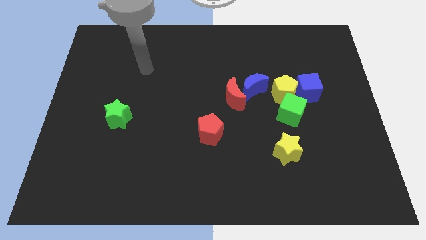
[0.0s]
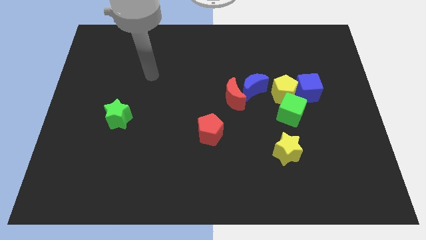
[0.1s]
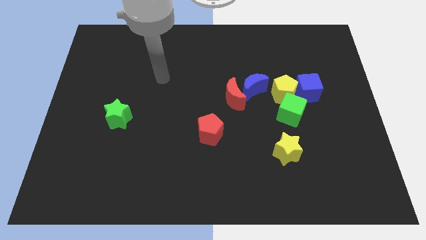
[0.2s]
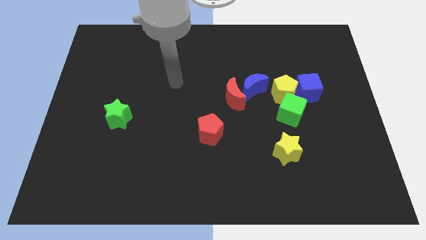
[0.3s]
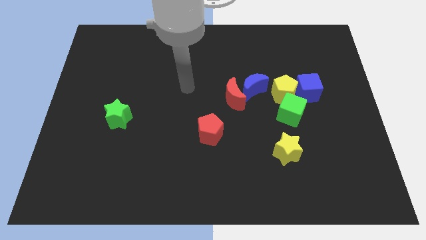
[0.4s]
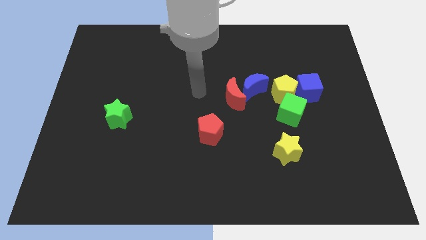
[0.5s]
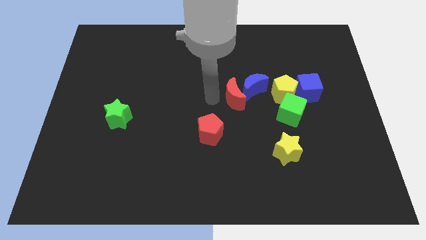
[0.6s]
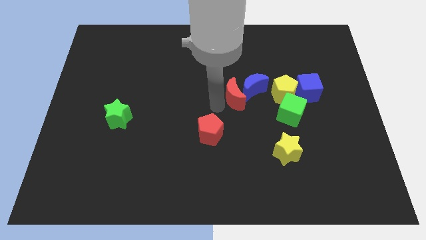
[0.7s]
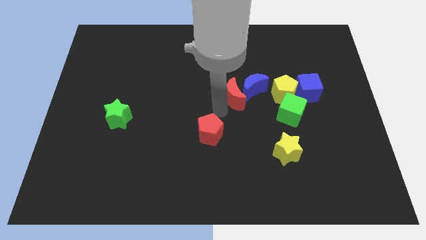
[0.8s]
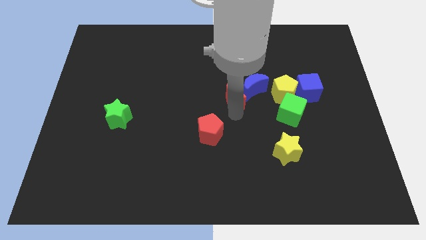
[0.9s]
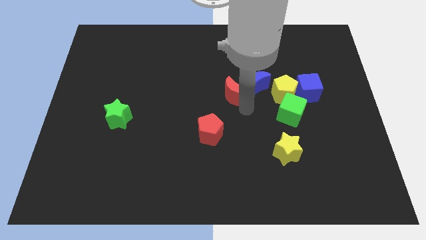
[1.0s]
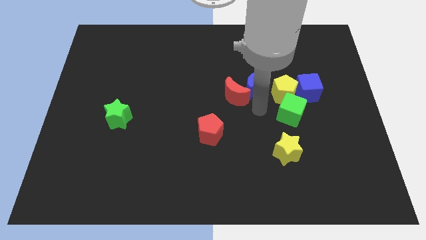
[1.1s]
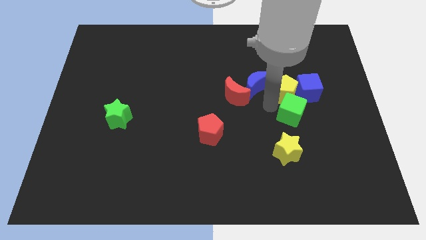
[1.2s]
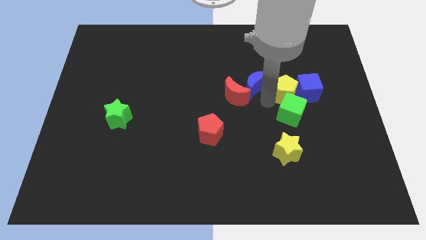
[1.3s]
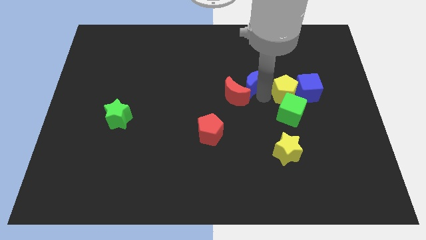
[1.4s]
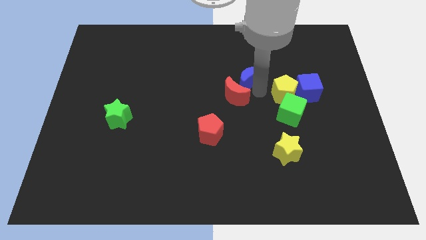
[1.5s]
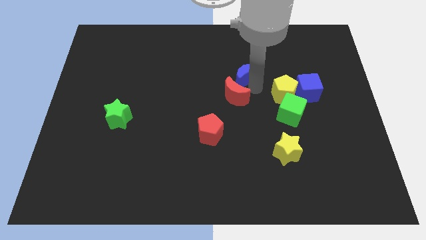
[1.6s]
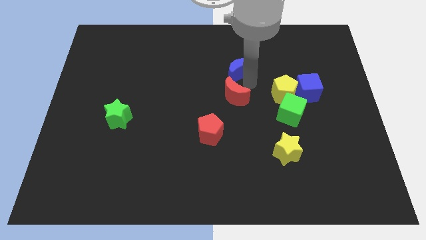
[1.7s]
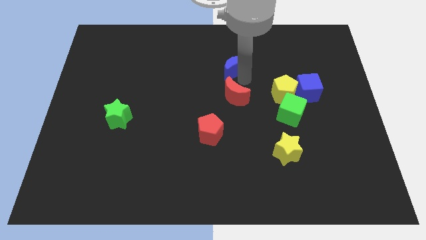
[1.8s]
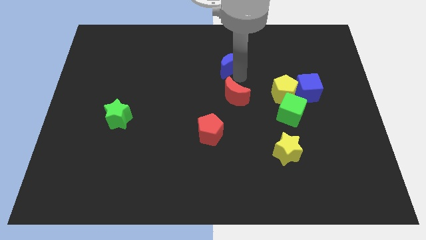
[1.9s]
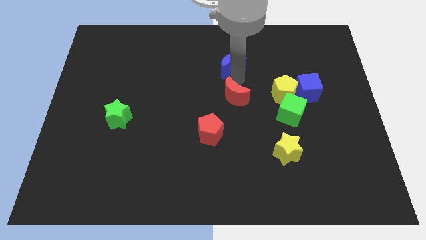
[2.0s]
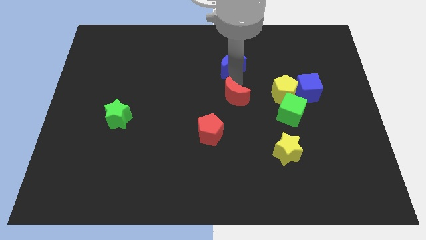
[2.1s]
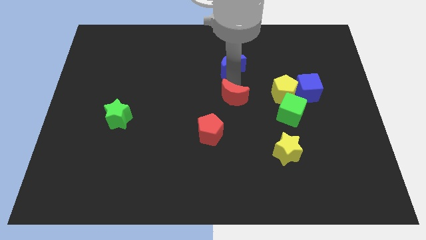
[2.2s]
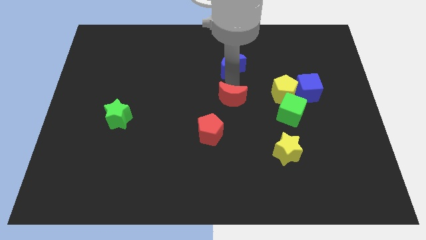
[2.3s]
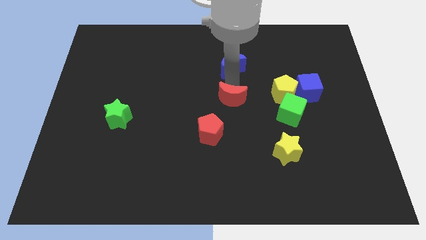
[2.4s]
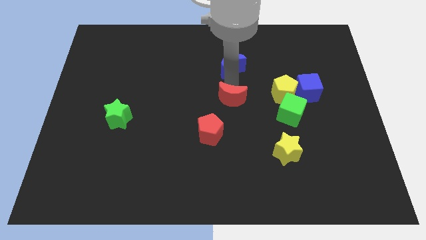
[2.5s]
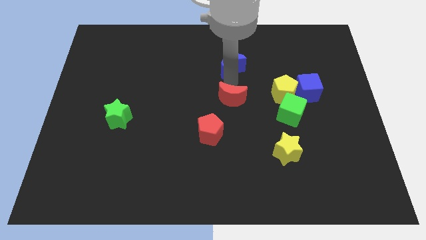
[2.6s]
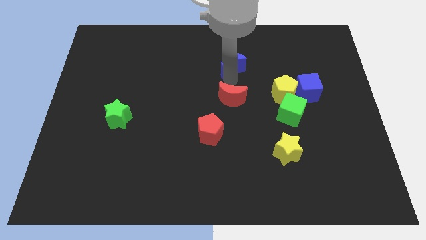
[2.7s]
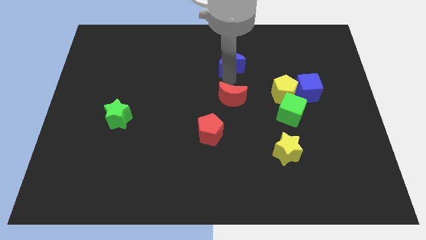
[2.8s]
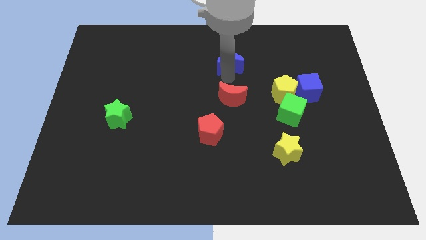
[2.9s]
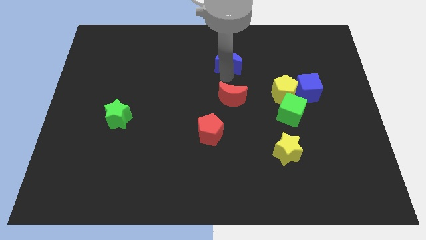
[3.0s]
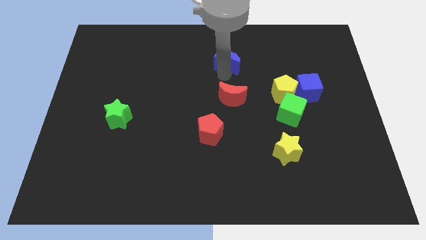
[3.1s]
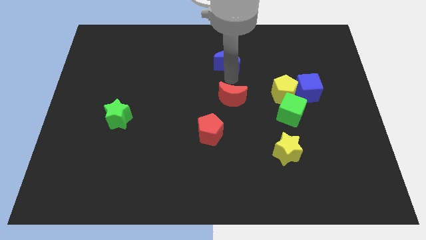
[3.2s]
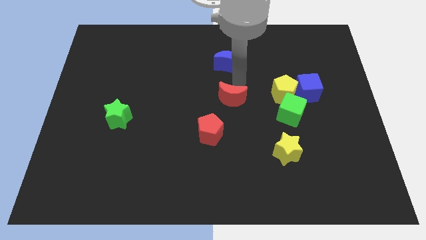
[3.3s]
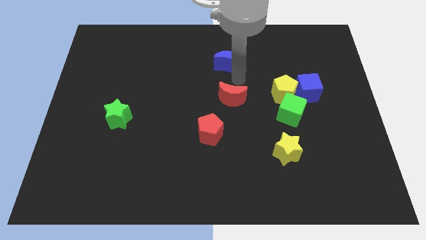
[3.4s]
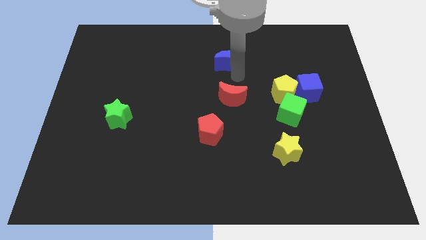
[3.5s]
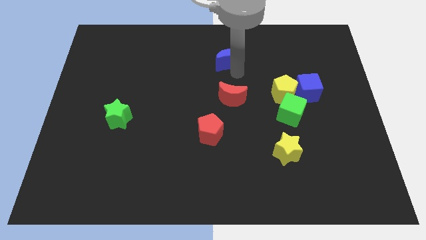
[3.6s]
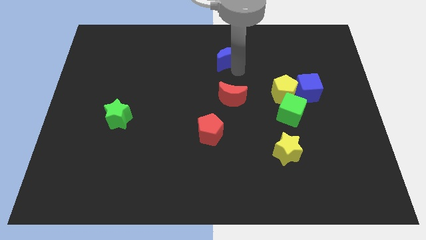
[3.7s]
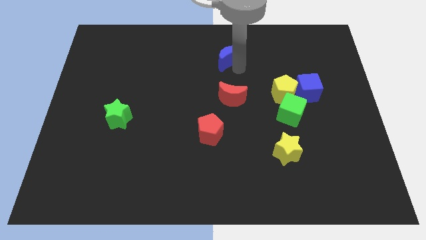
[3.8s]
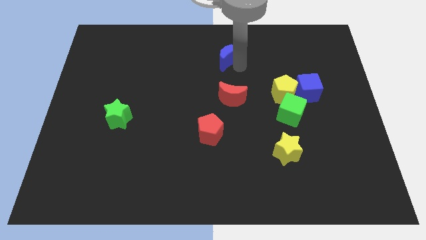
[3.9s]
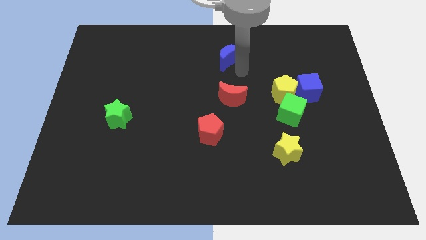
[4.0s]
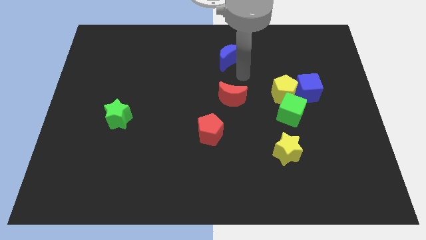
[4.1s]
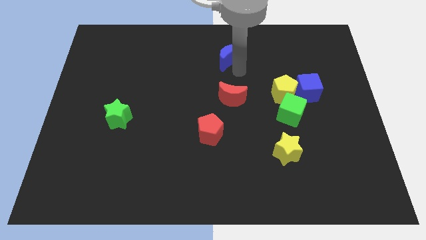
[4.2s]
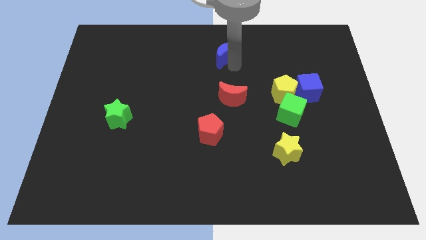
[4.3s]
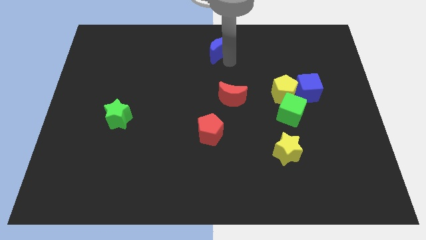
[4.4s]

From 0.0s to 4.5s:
move the blue moon to the top side

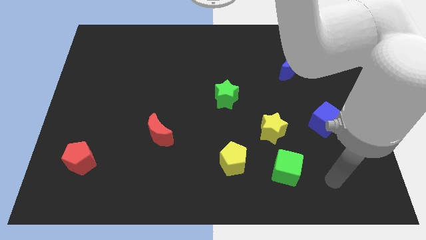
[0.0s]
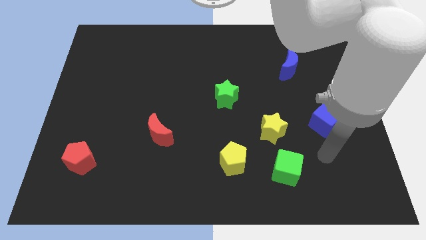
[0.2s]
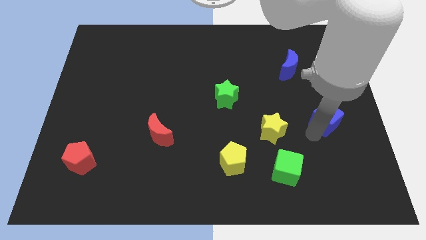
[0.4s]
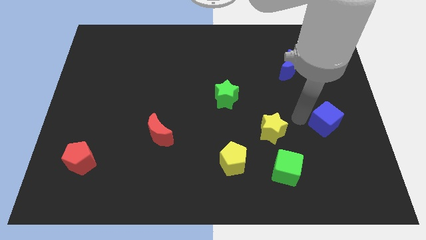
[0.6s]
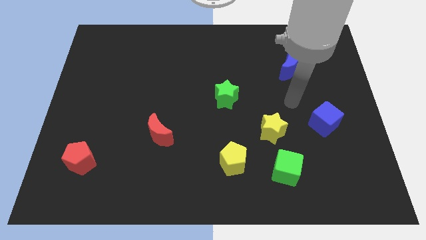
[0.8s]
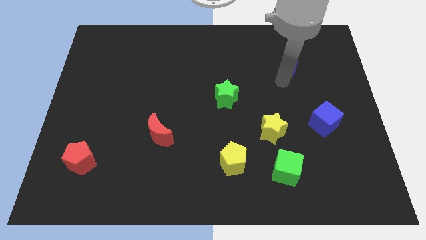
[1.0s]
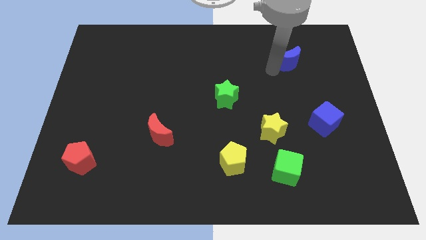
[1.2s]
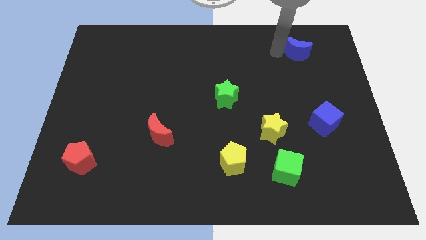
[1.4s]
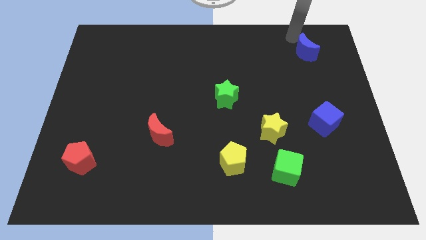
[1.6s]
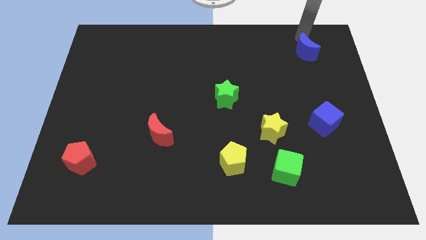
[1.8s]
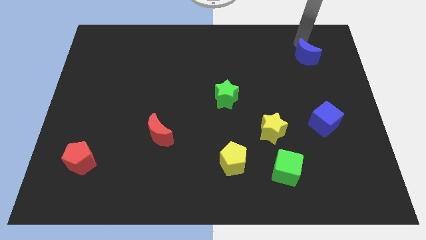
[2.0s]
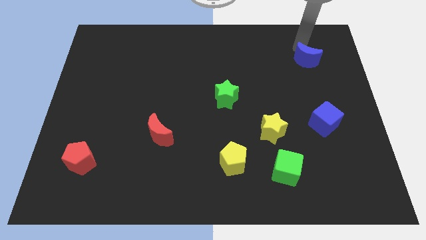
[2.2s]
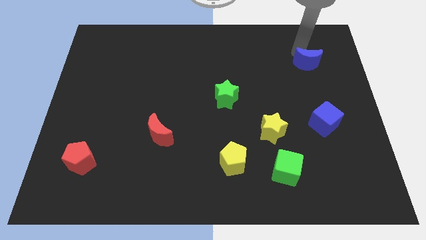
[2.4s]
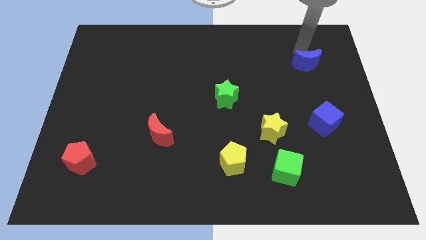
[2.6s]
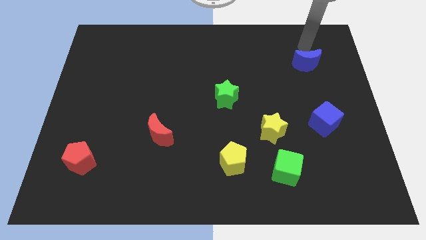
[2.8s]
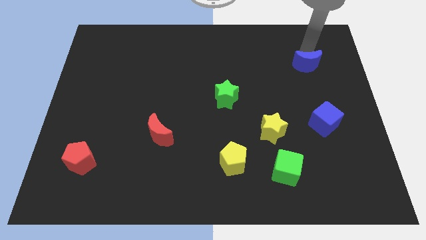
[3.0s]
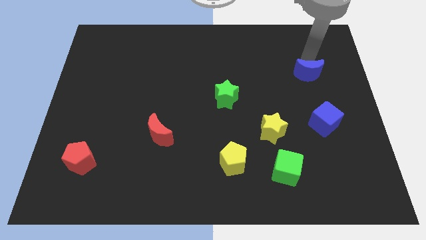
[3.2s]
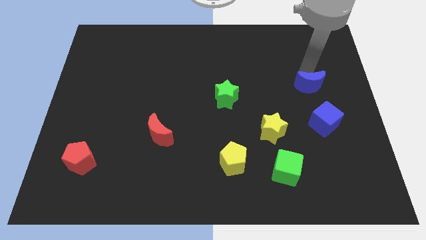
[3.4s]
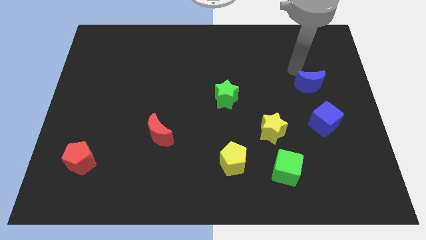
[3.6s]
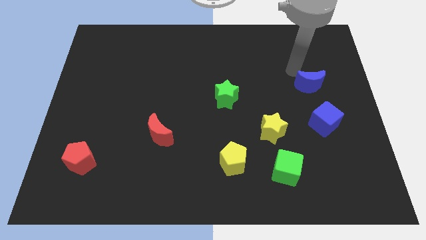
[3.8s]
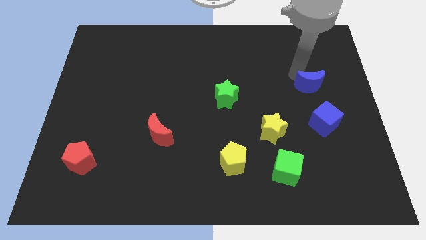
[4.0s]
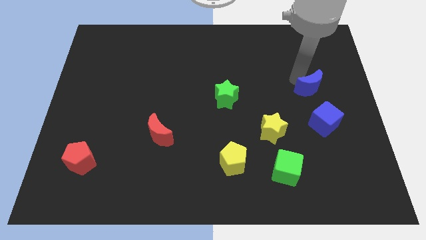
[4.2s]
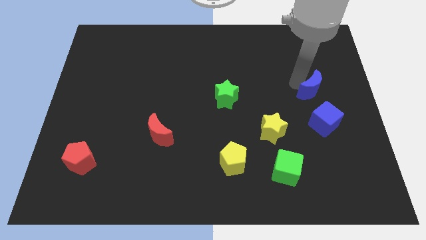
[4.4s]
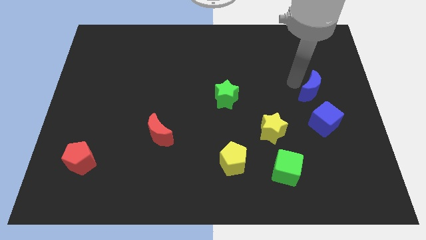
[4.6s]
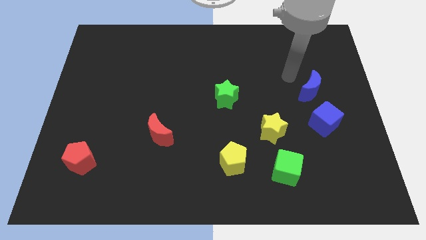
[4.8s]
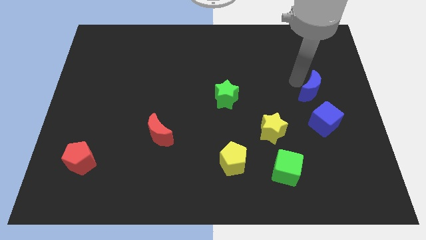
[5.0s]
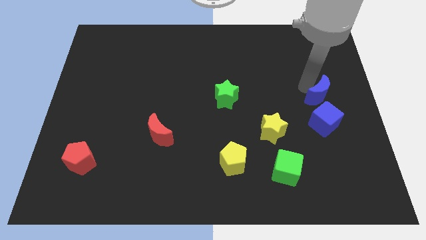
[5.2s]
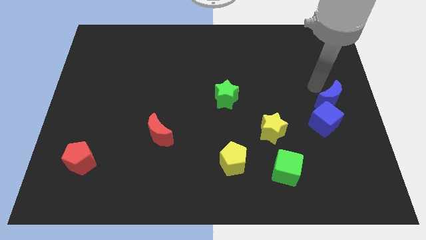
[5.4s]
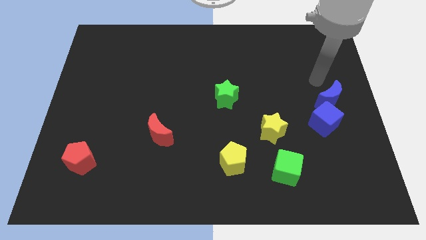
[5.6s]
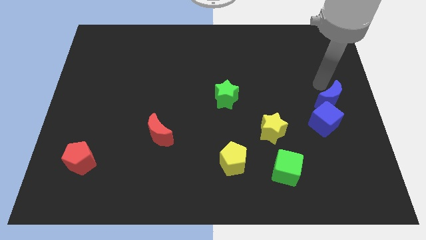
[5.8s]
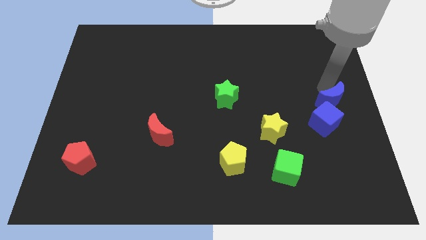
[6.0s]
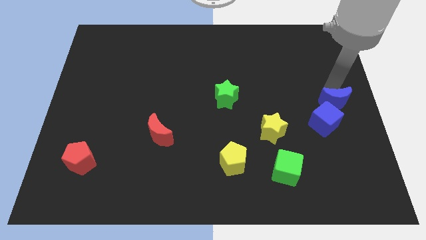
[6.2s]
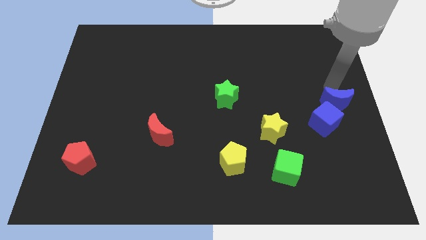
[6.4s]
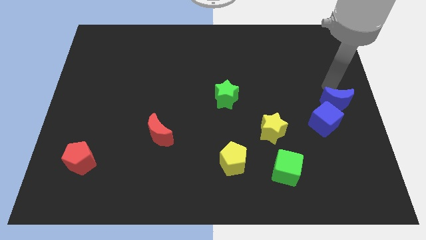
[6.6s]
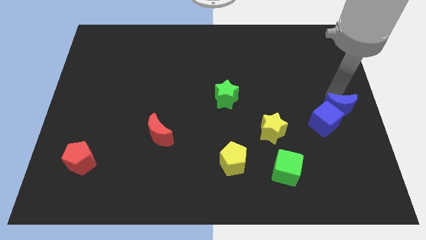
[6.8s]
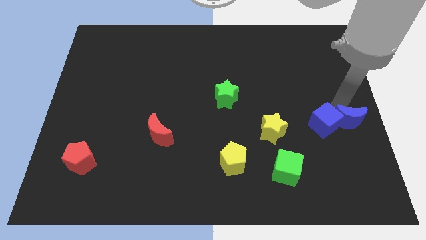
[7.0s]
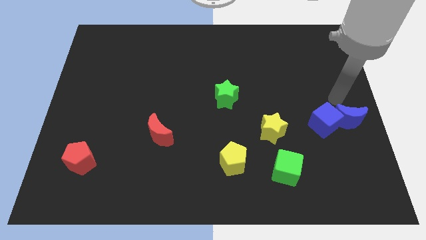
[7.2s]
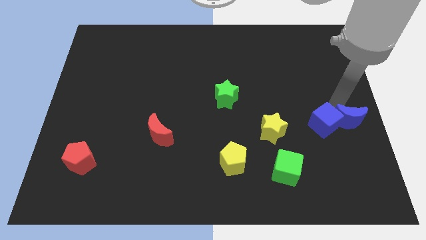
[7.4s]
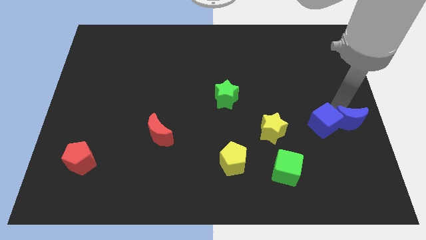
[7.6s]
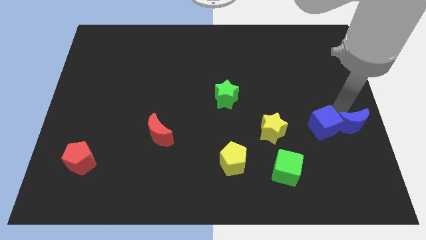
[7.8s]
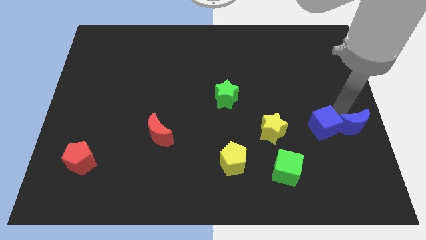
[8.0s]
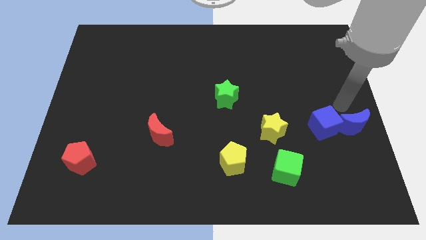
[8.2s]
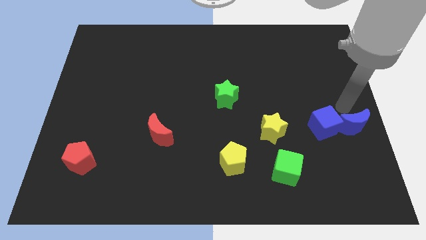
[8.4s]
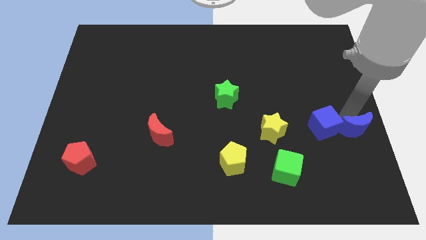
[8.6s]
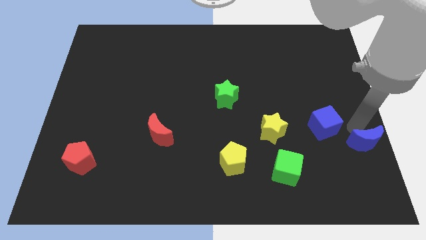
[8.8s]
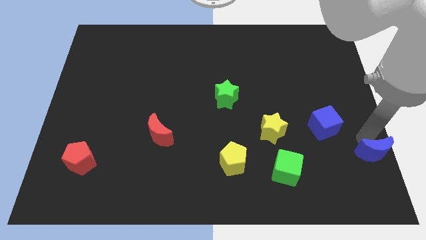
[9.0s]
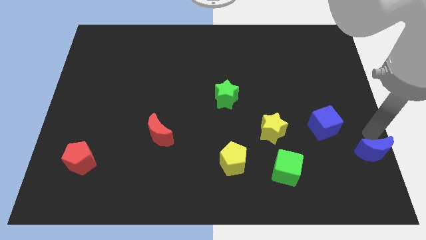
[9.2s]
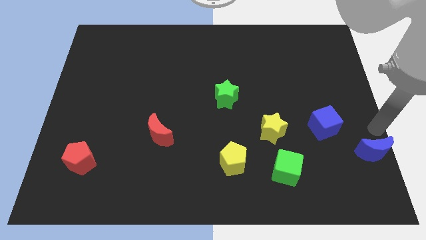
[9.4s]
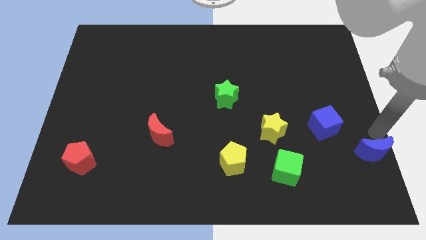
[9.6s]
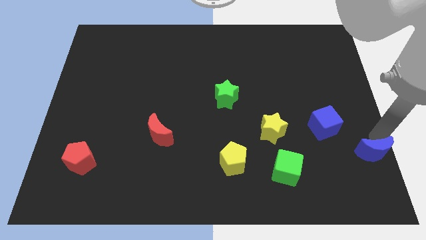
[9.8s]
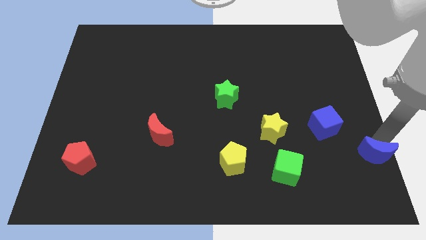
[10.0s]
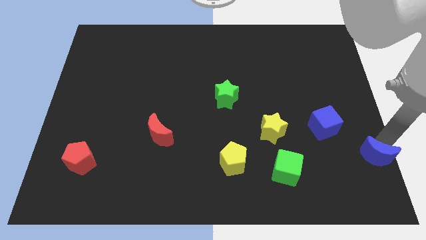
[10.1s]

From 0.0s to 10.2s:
put the blue moon to the bottom right corner
